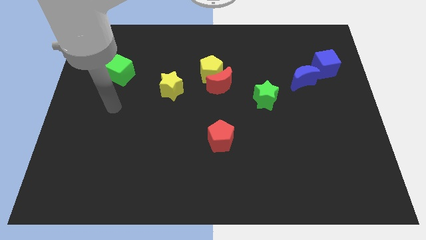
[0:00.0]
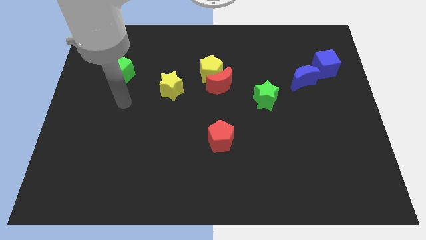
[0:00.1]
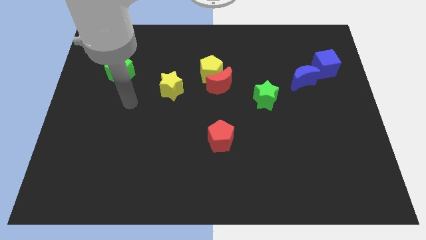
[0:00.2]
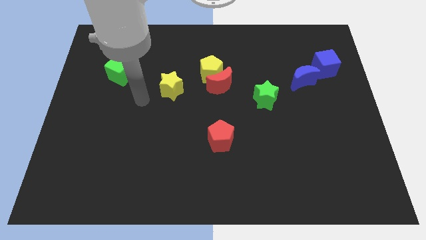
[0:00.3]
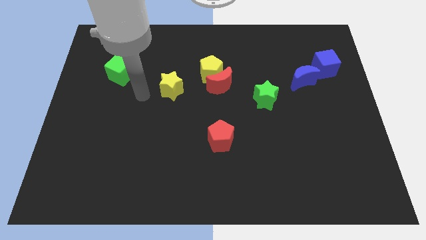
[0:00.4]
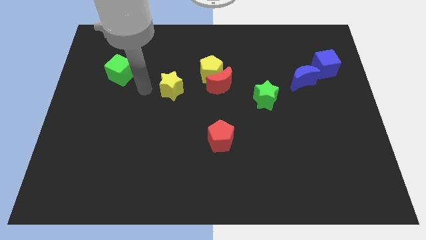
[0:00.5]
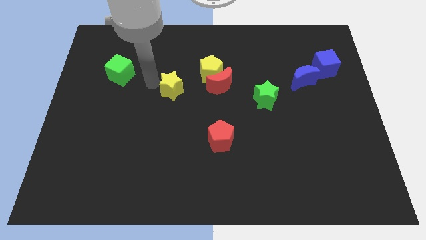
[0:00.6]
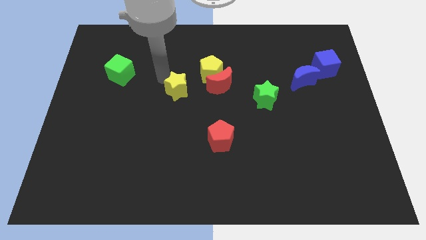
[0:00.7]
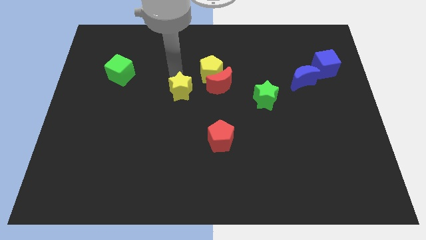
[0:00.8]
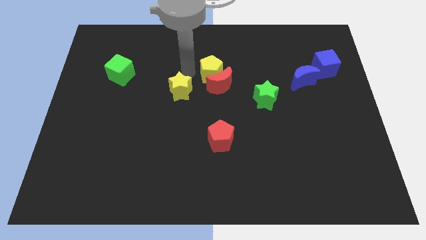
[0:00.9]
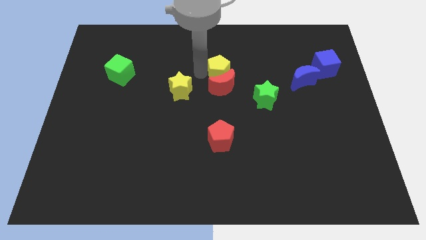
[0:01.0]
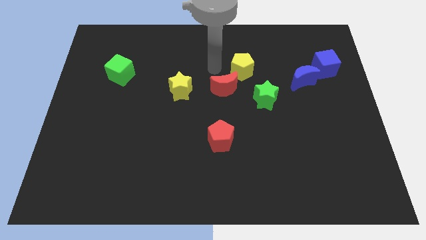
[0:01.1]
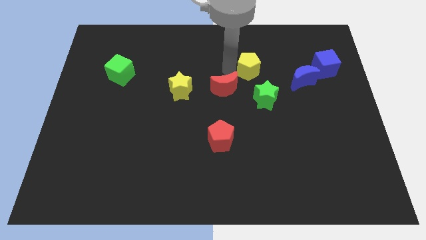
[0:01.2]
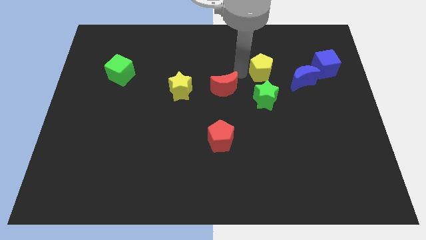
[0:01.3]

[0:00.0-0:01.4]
move the red moon away from the yellow pentagon

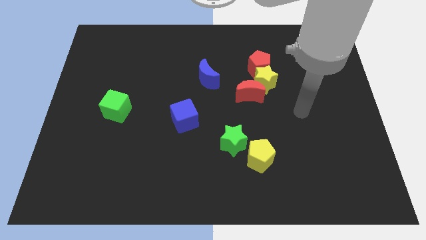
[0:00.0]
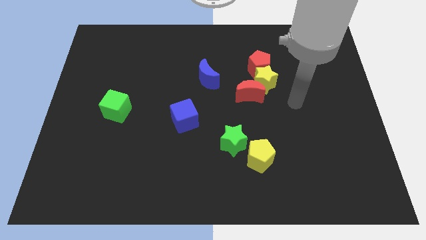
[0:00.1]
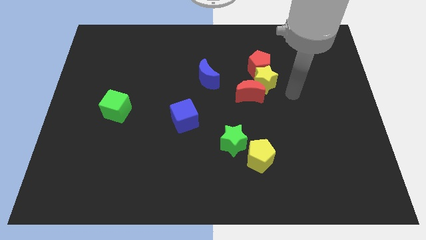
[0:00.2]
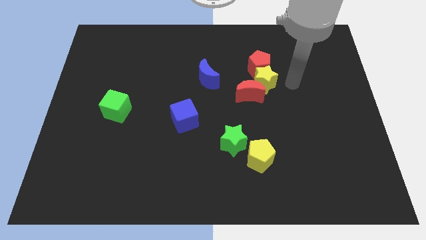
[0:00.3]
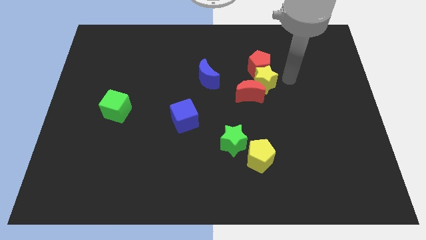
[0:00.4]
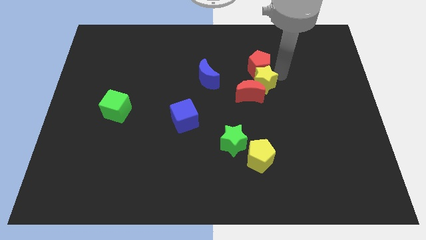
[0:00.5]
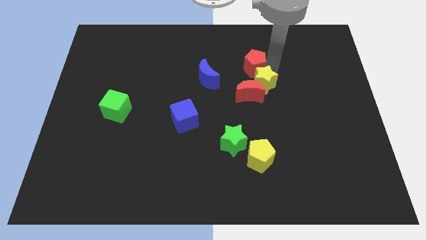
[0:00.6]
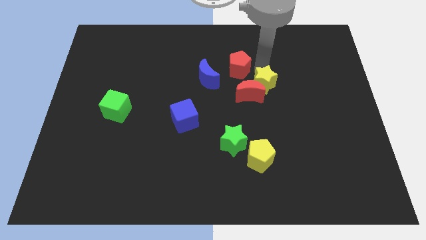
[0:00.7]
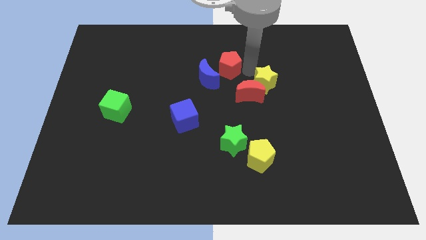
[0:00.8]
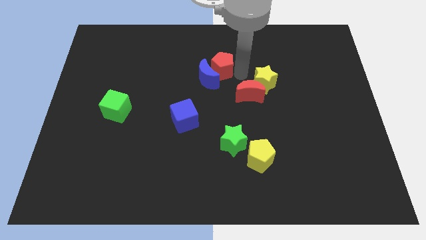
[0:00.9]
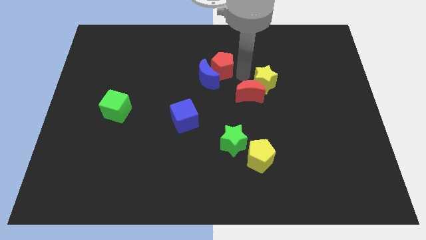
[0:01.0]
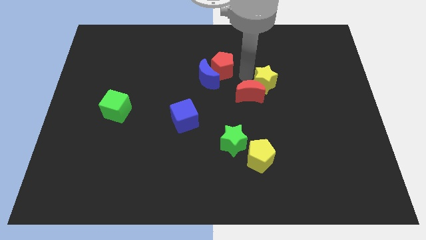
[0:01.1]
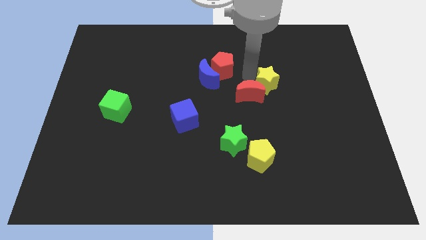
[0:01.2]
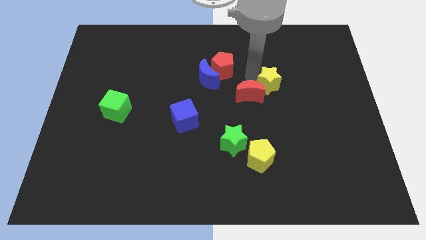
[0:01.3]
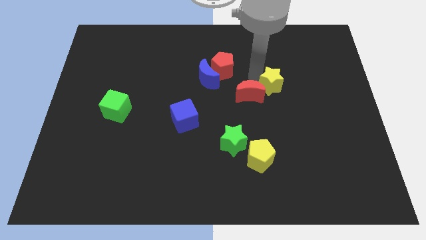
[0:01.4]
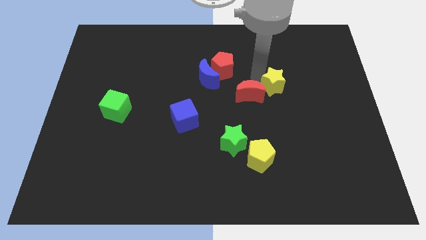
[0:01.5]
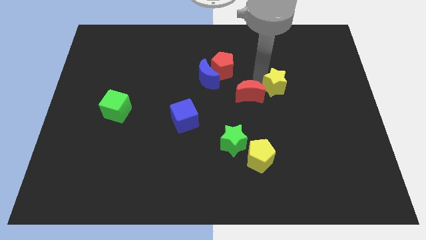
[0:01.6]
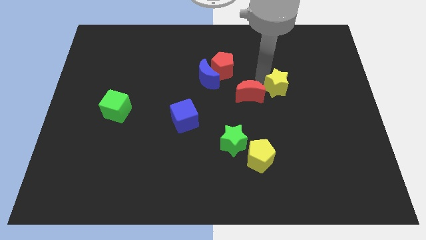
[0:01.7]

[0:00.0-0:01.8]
separate the yellow star from the red moon and red pentagon

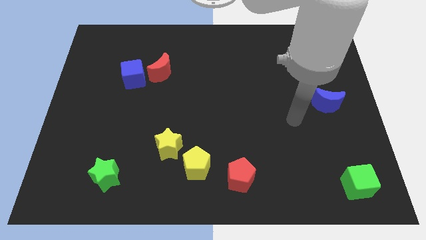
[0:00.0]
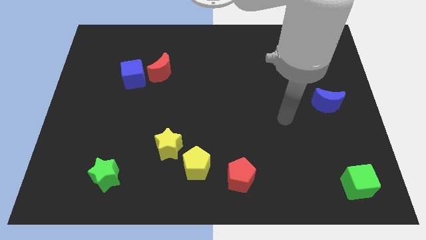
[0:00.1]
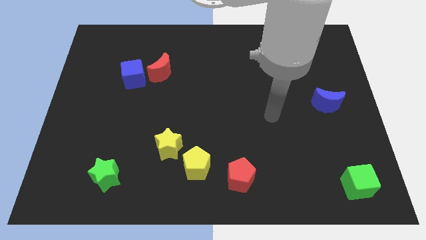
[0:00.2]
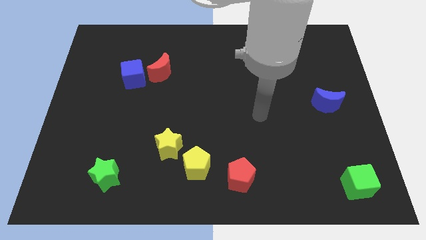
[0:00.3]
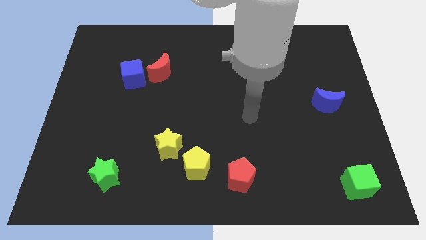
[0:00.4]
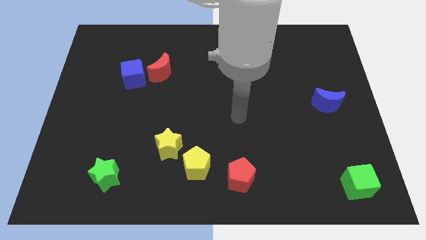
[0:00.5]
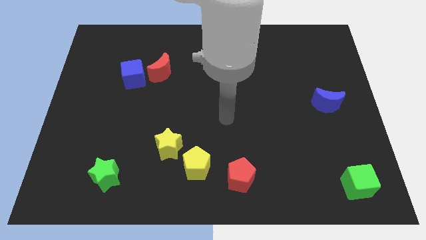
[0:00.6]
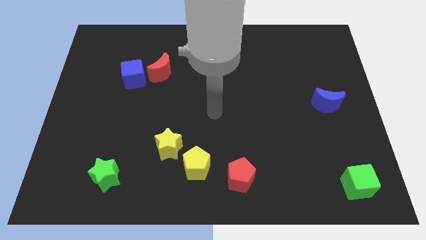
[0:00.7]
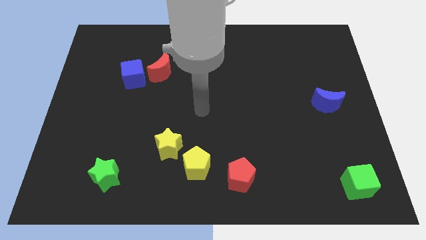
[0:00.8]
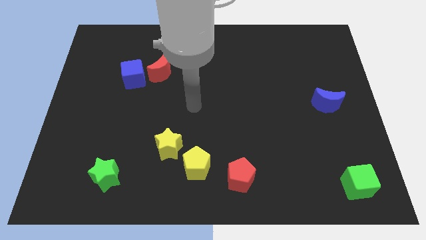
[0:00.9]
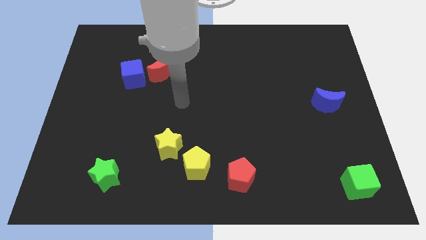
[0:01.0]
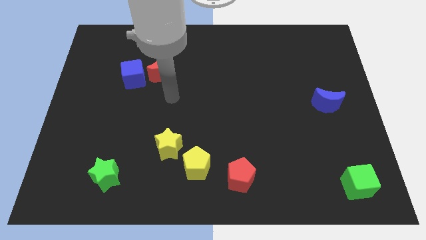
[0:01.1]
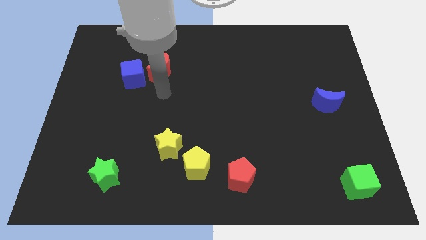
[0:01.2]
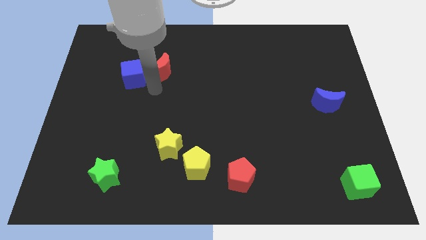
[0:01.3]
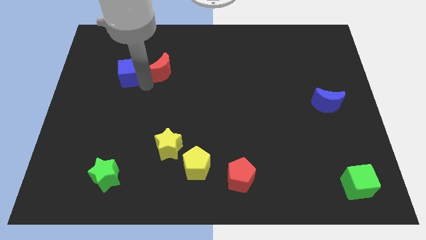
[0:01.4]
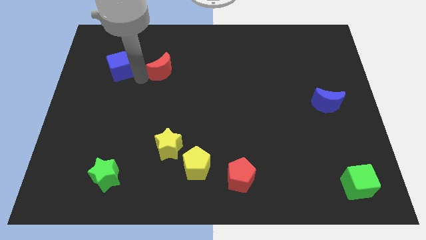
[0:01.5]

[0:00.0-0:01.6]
move the red moon away from the blue cube

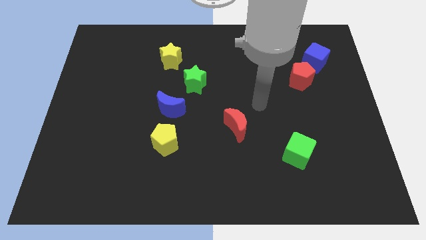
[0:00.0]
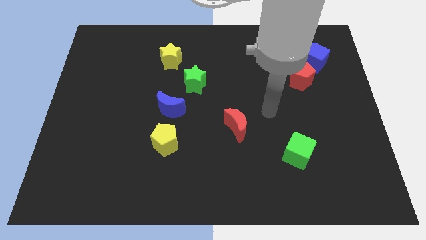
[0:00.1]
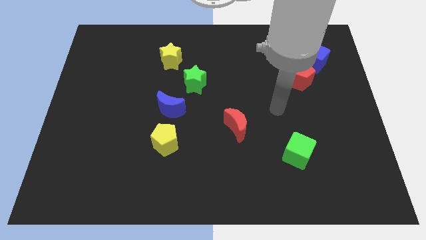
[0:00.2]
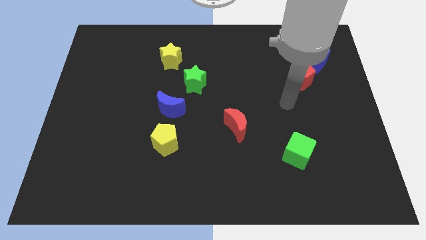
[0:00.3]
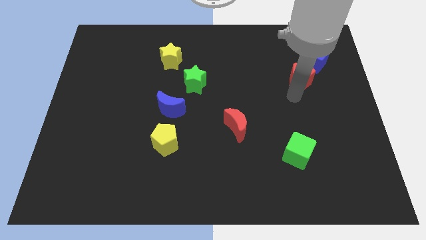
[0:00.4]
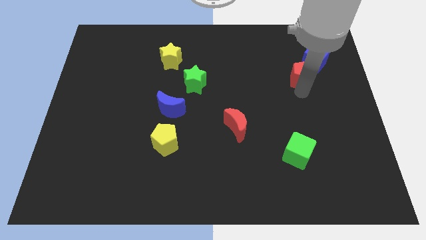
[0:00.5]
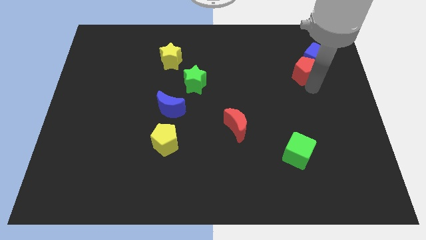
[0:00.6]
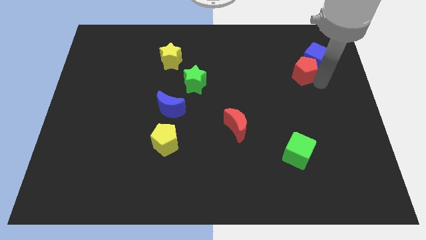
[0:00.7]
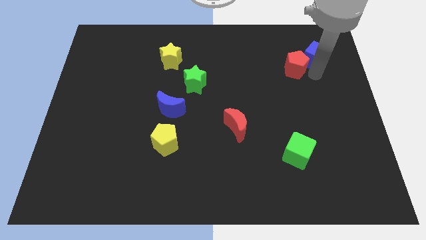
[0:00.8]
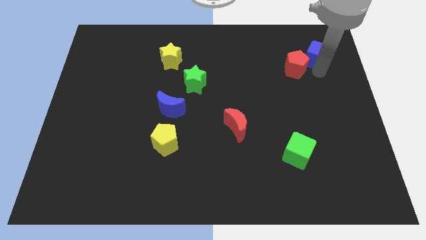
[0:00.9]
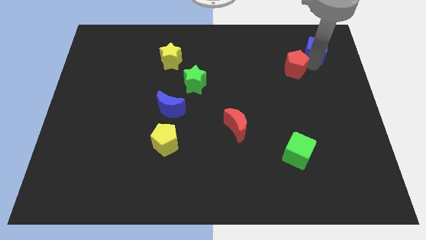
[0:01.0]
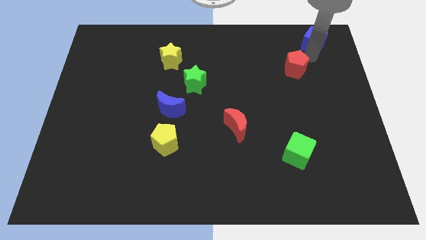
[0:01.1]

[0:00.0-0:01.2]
separate the red pentagon from the blue cube

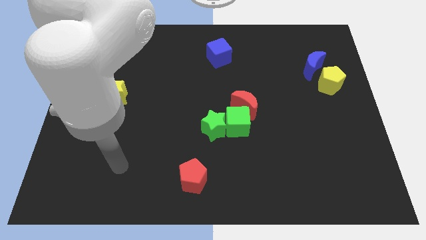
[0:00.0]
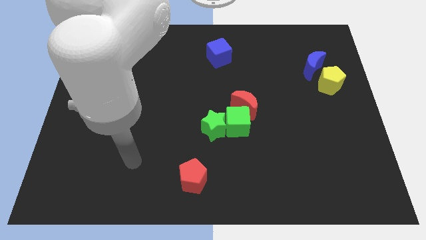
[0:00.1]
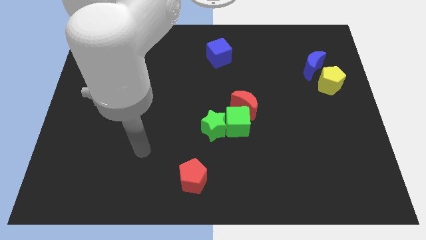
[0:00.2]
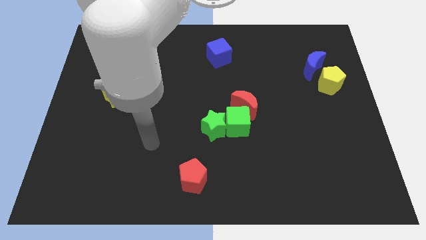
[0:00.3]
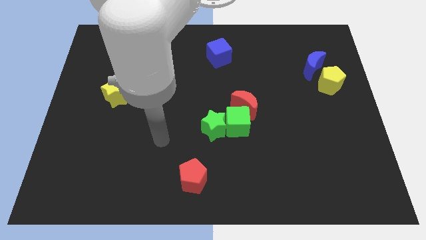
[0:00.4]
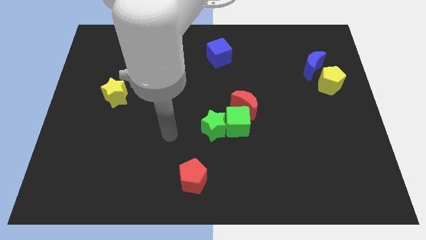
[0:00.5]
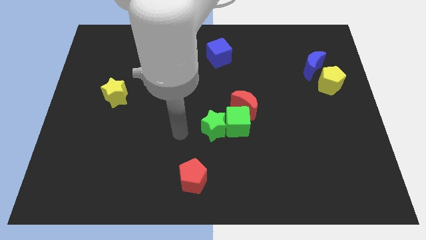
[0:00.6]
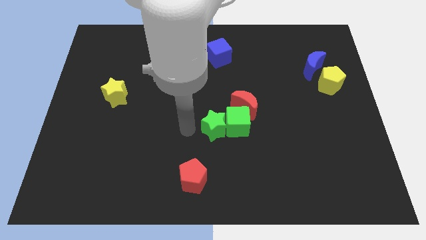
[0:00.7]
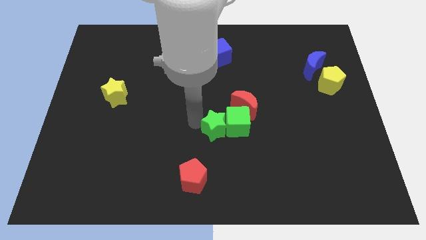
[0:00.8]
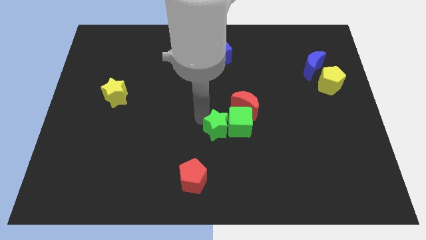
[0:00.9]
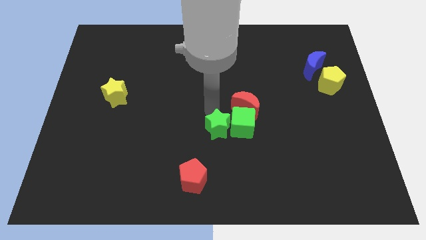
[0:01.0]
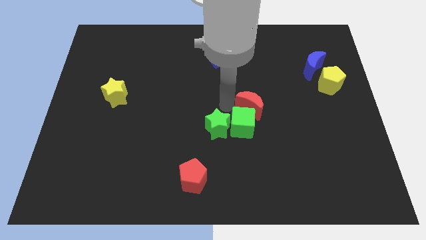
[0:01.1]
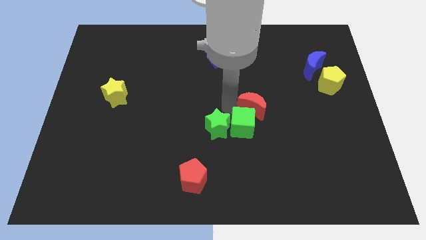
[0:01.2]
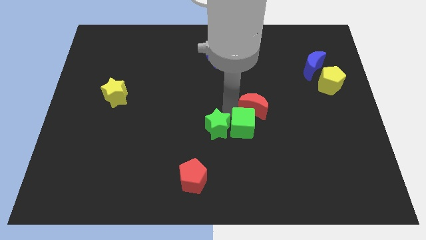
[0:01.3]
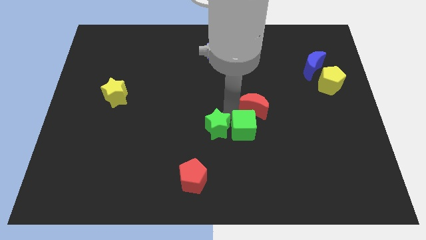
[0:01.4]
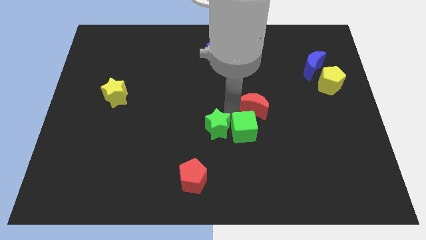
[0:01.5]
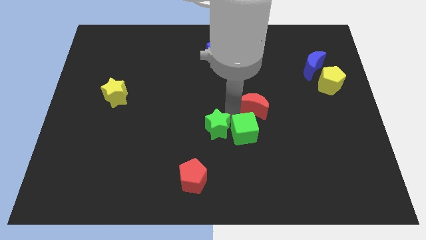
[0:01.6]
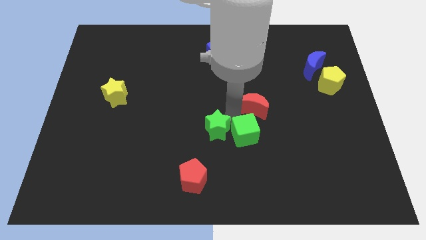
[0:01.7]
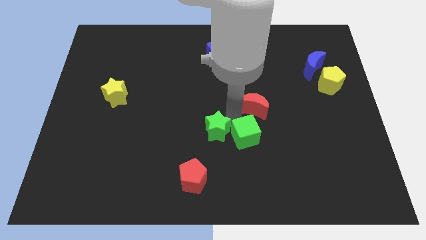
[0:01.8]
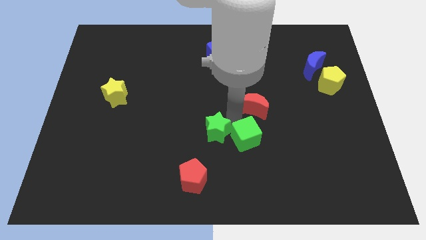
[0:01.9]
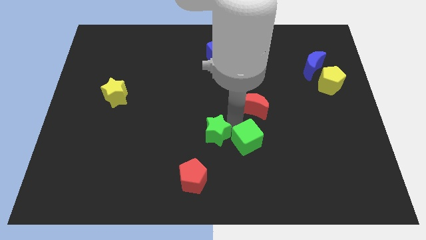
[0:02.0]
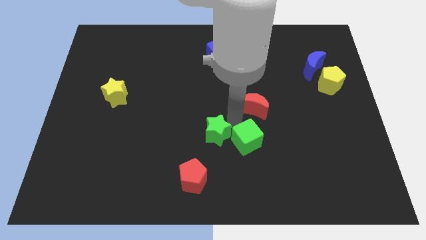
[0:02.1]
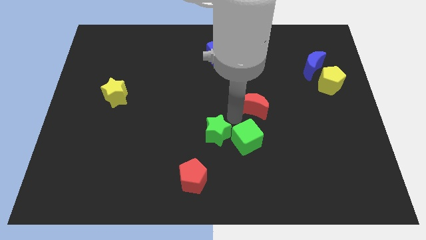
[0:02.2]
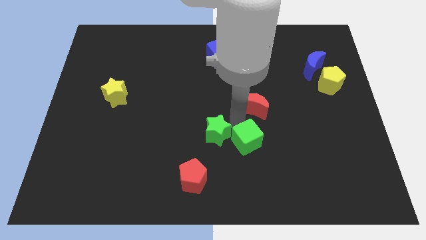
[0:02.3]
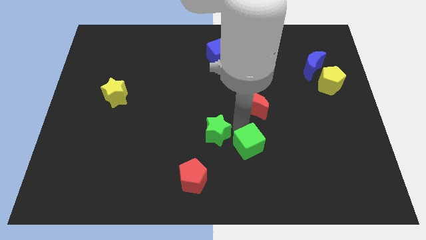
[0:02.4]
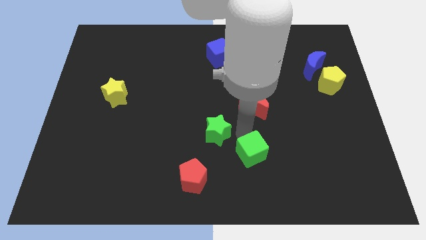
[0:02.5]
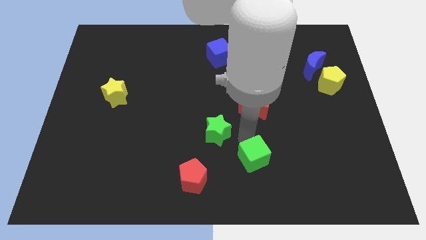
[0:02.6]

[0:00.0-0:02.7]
separate the green cube from the green star and red moon

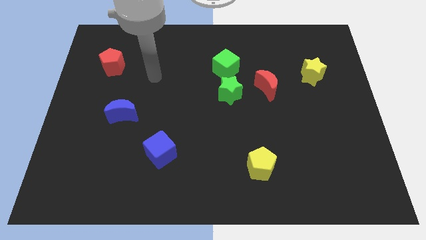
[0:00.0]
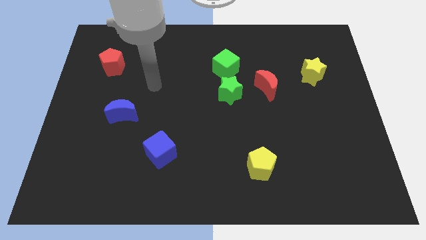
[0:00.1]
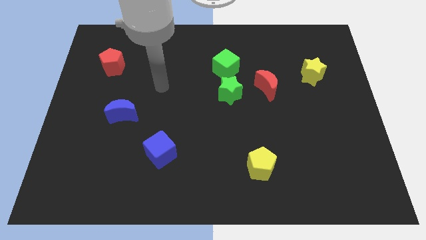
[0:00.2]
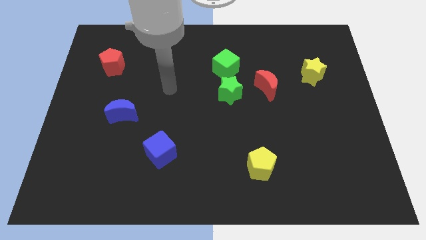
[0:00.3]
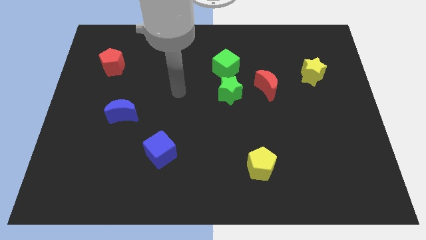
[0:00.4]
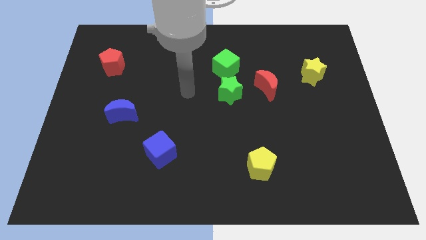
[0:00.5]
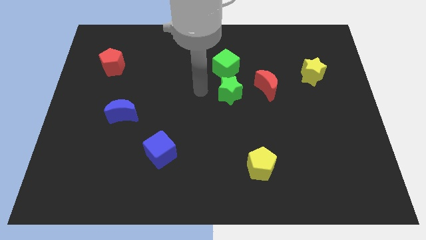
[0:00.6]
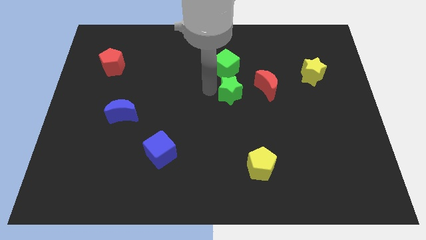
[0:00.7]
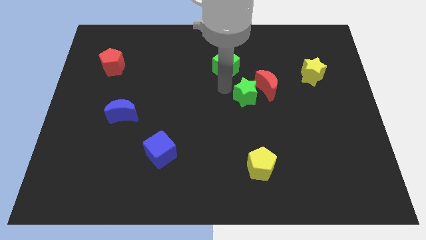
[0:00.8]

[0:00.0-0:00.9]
separate the green cube from the green star
